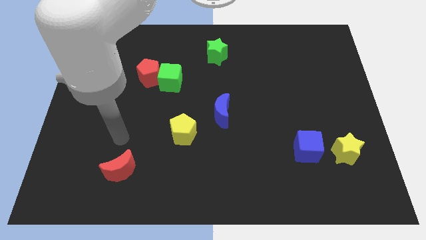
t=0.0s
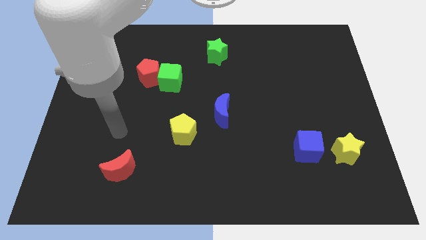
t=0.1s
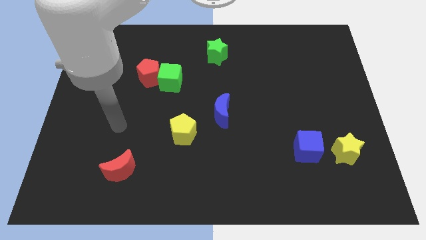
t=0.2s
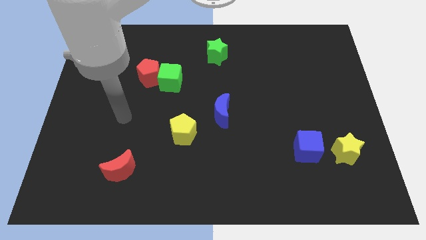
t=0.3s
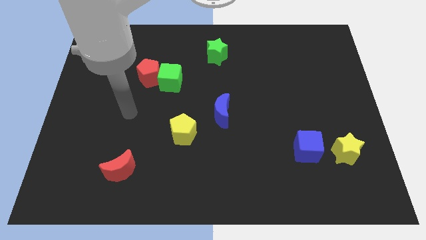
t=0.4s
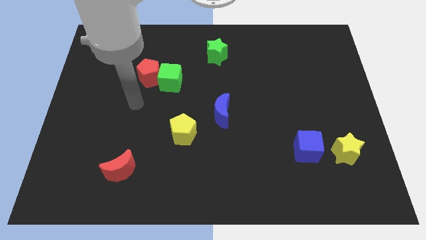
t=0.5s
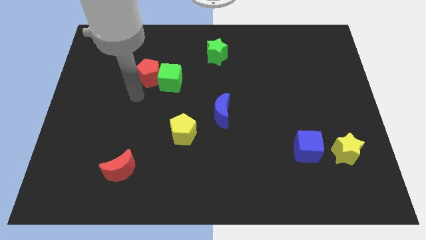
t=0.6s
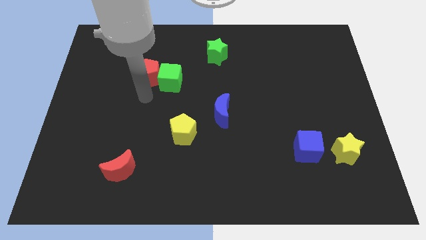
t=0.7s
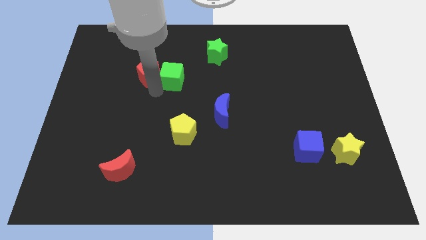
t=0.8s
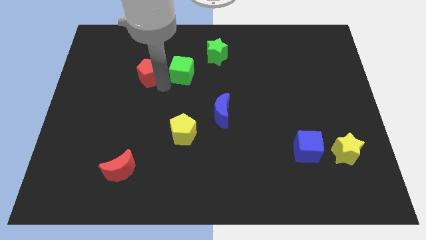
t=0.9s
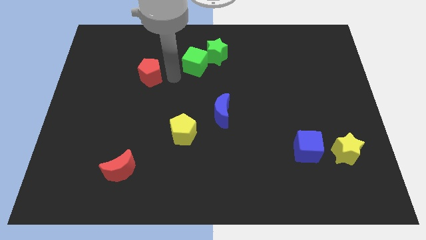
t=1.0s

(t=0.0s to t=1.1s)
separate the red pentagon from the green cube

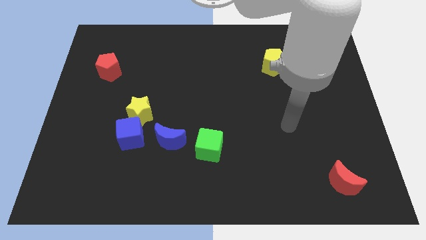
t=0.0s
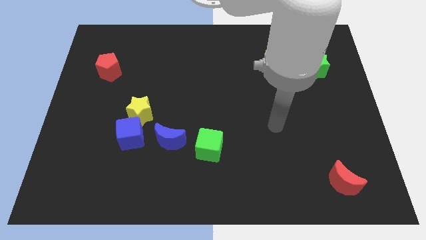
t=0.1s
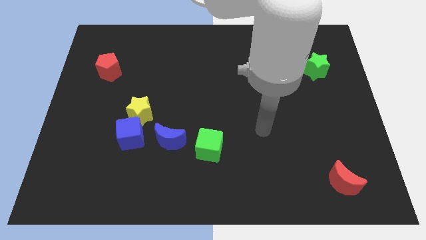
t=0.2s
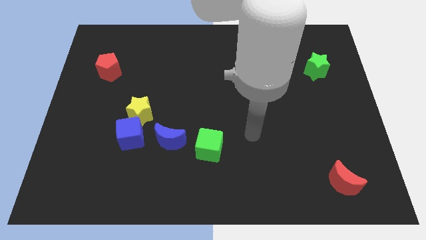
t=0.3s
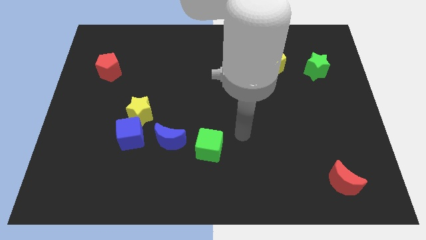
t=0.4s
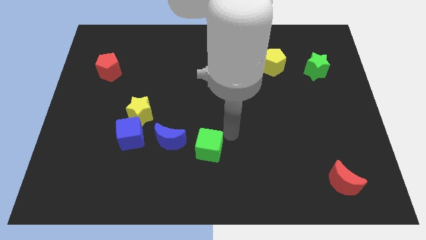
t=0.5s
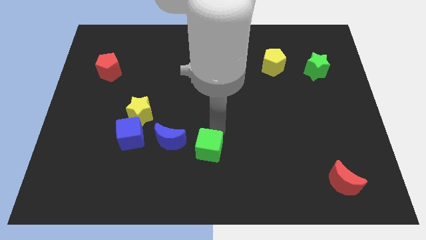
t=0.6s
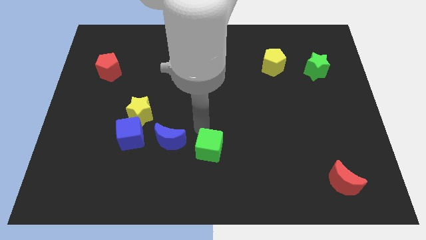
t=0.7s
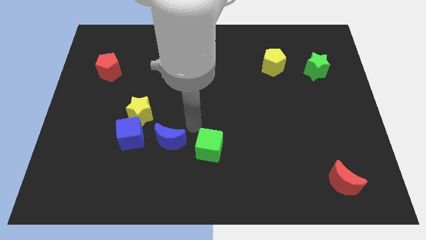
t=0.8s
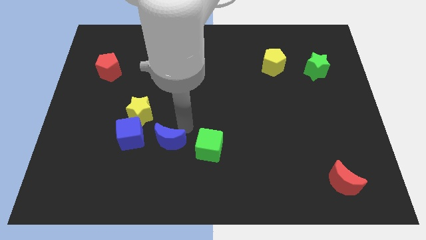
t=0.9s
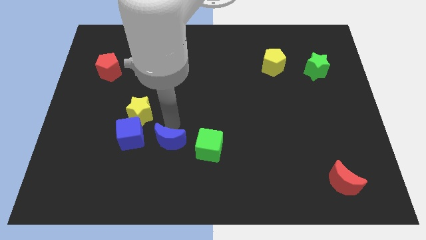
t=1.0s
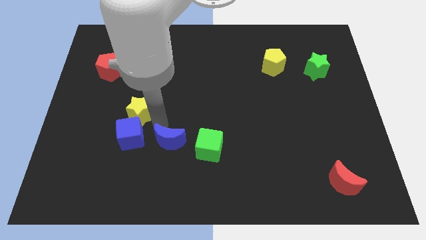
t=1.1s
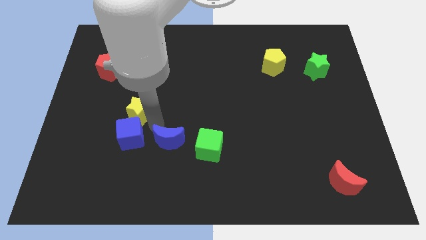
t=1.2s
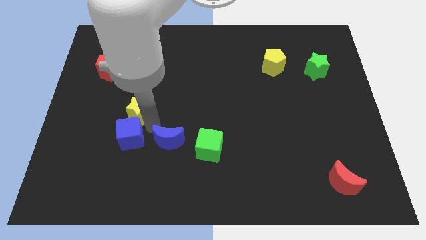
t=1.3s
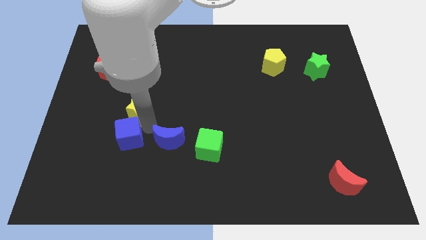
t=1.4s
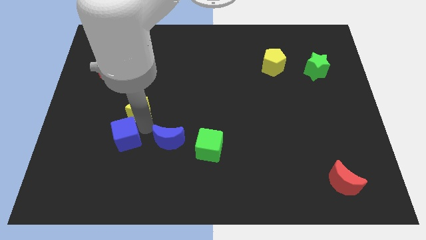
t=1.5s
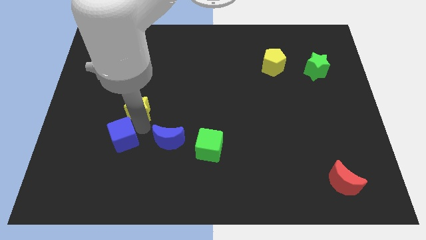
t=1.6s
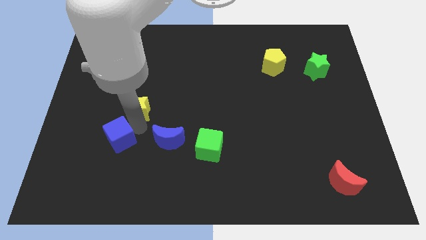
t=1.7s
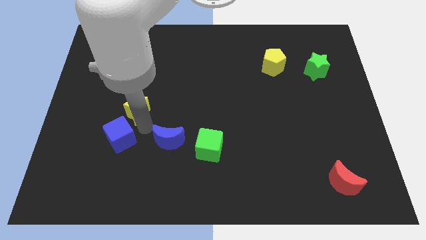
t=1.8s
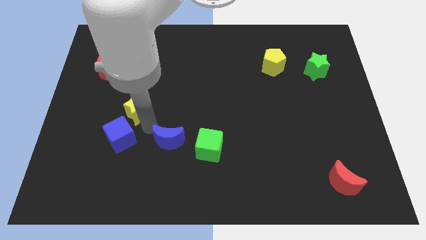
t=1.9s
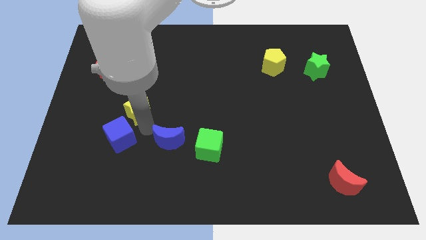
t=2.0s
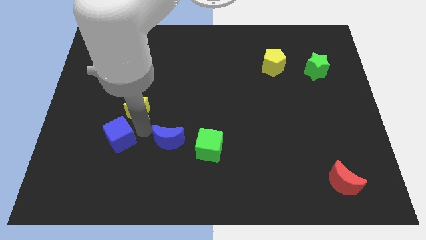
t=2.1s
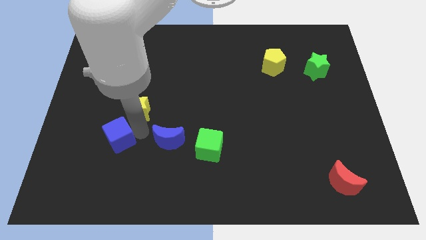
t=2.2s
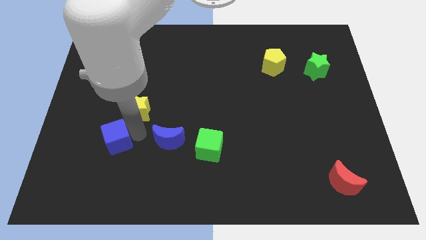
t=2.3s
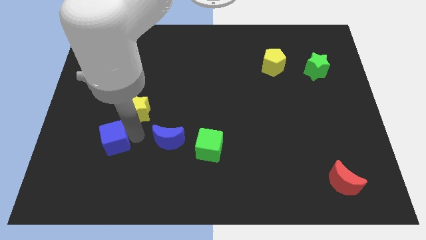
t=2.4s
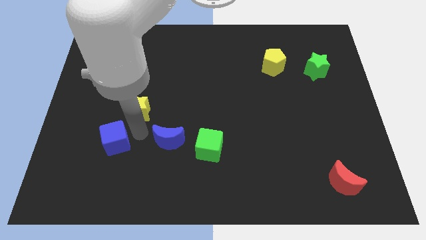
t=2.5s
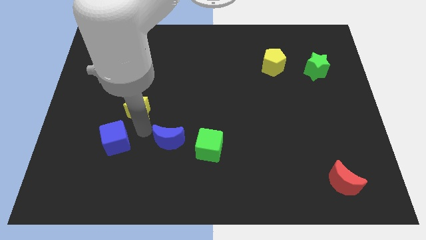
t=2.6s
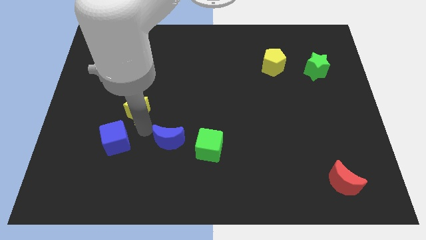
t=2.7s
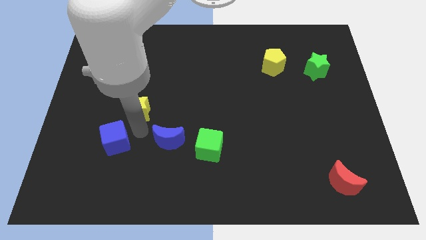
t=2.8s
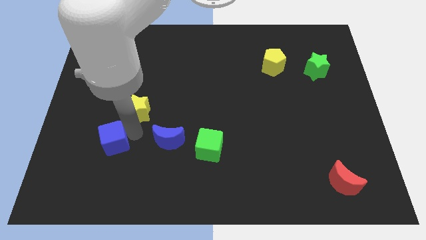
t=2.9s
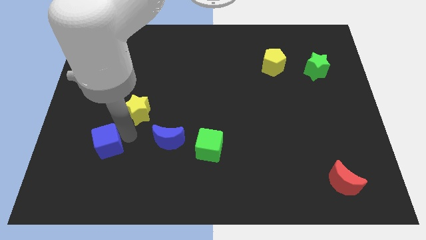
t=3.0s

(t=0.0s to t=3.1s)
move the blue cube away from the yellow star and blue moon

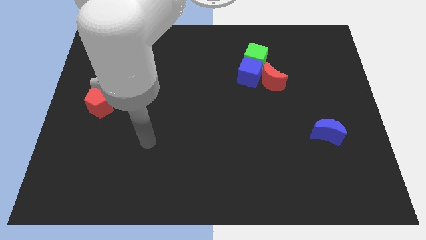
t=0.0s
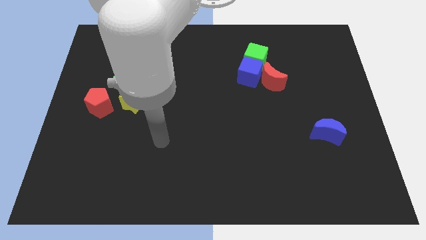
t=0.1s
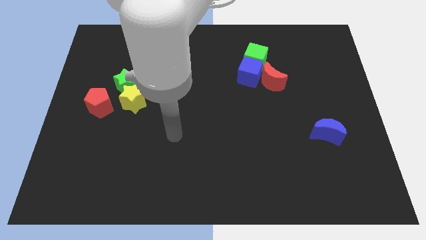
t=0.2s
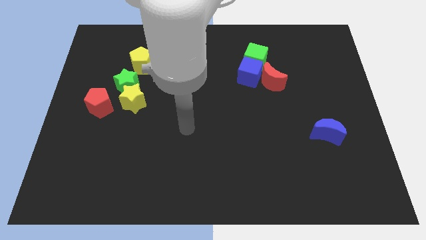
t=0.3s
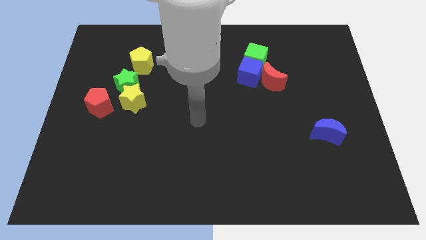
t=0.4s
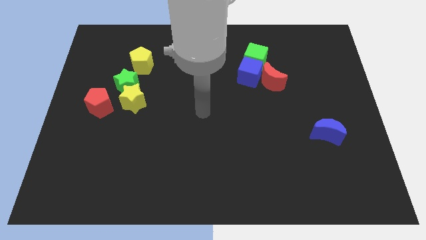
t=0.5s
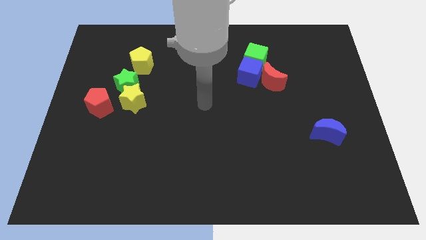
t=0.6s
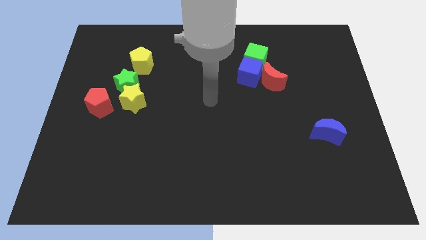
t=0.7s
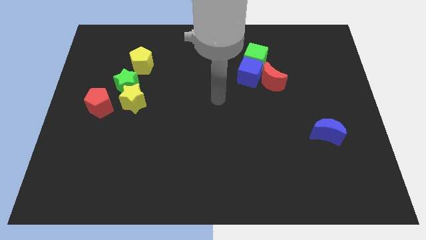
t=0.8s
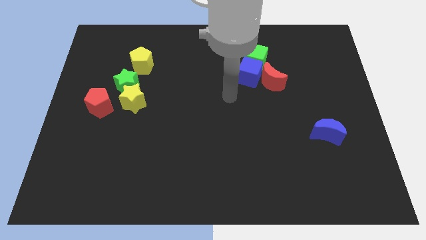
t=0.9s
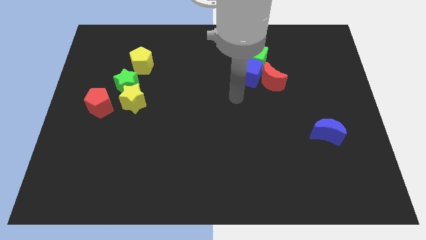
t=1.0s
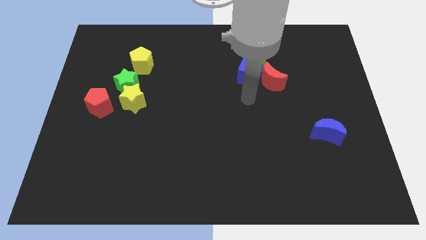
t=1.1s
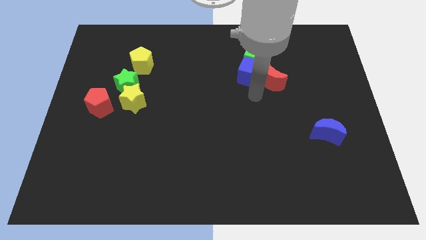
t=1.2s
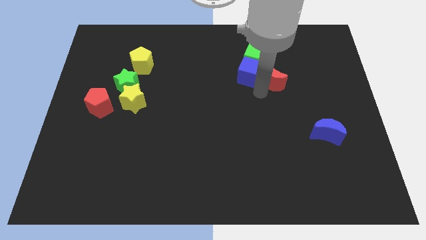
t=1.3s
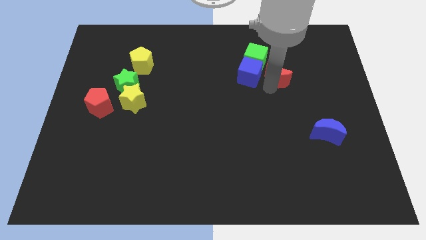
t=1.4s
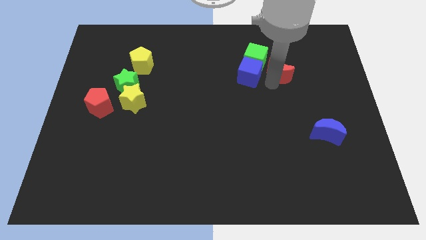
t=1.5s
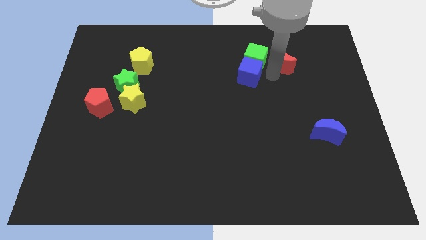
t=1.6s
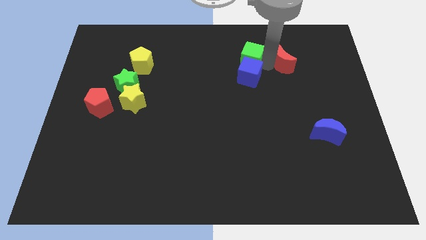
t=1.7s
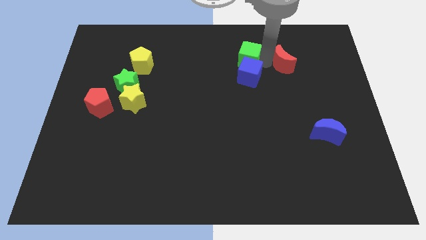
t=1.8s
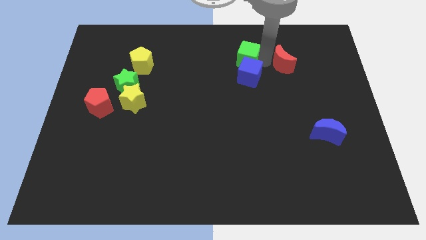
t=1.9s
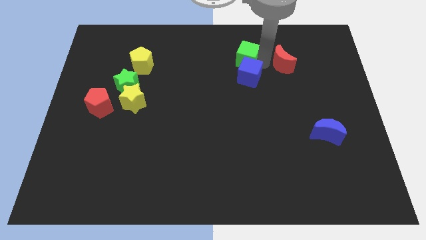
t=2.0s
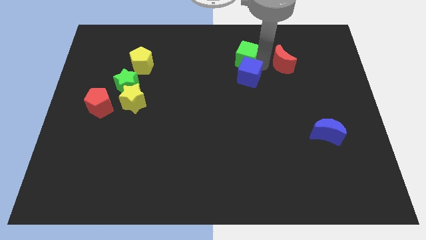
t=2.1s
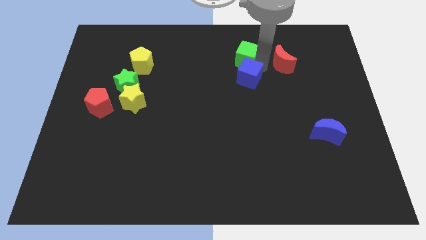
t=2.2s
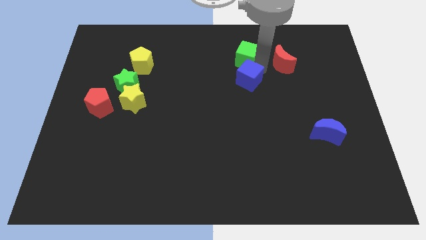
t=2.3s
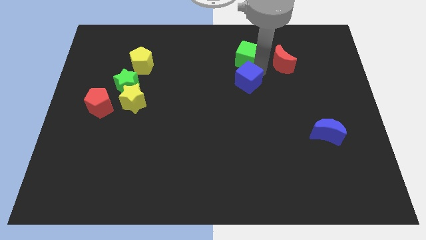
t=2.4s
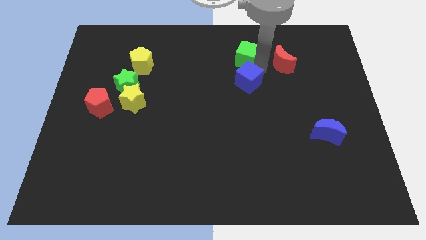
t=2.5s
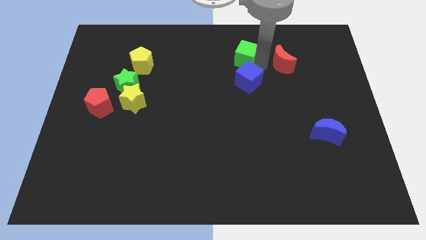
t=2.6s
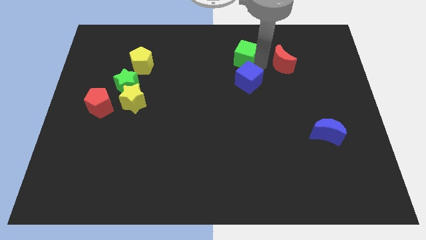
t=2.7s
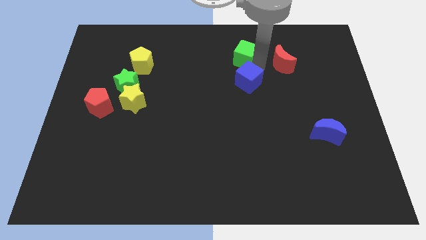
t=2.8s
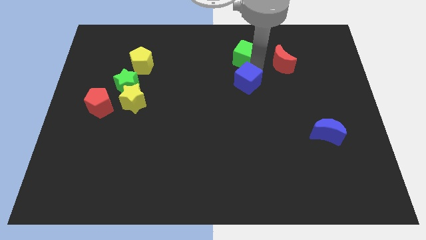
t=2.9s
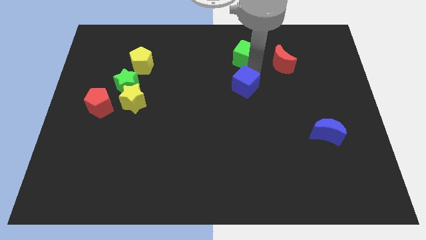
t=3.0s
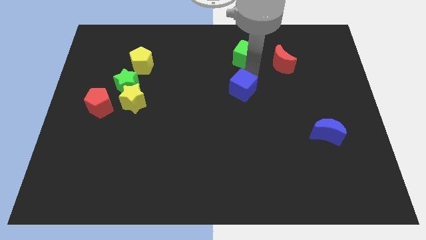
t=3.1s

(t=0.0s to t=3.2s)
separate the blue cube from the green cube and red moon

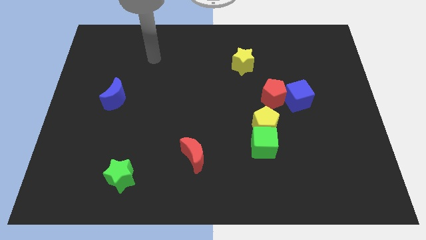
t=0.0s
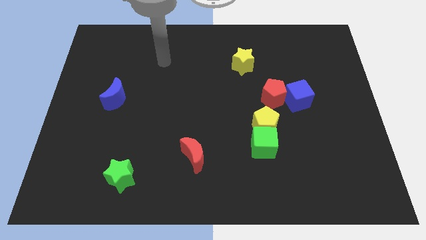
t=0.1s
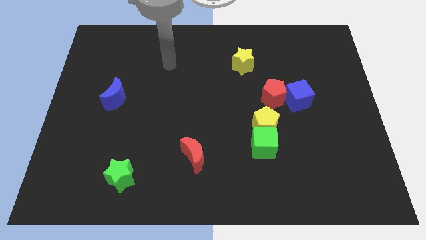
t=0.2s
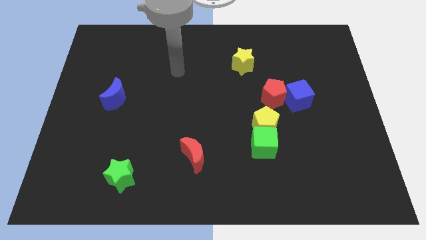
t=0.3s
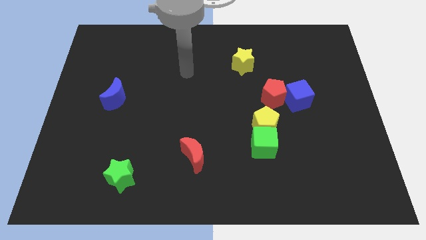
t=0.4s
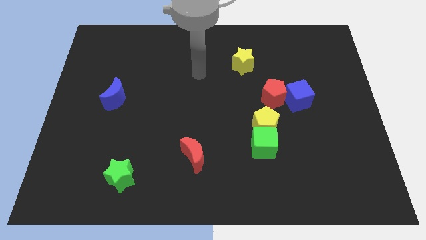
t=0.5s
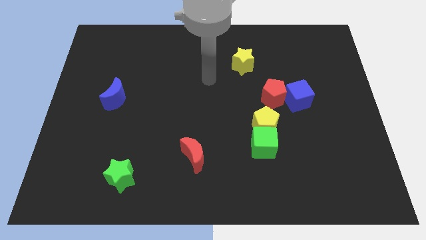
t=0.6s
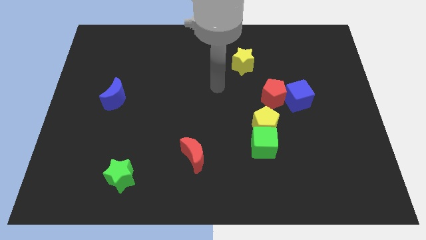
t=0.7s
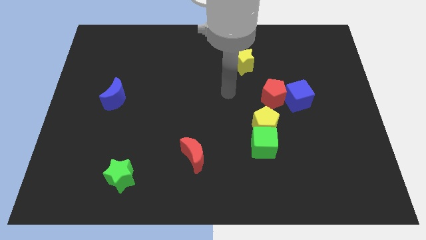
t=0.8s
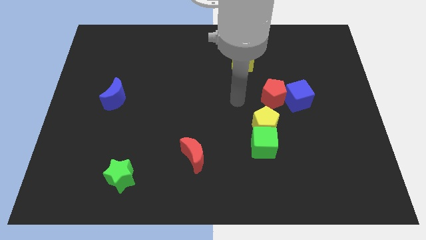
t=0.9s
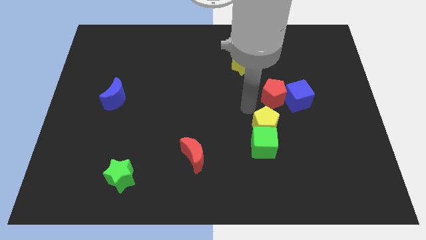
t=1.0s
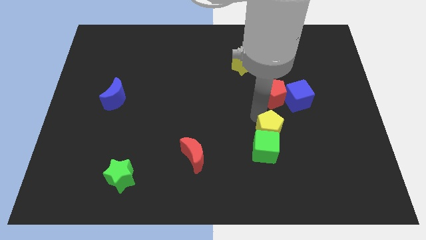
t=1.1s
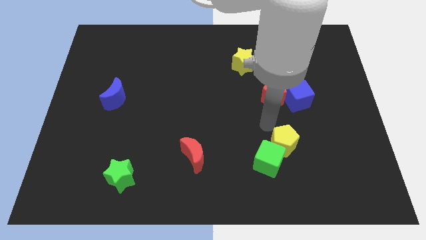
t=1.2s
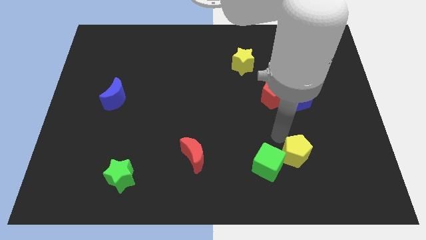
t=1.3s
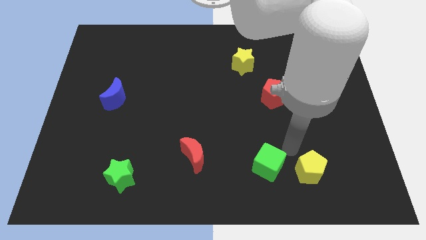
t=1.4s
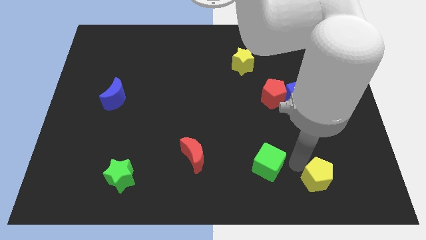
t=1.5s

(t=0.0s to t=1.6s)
move the green cube away from the yellow pentagon

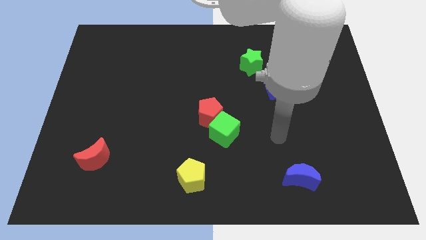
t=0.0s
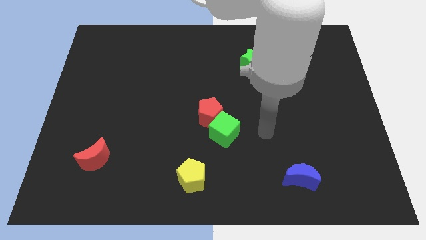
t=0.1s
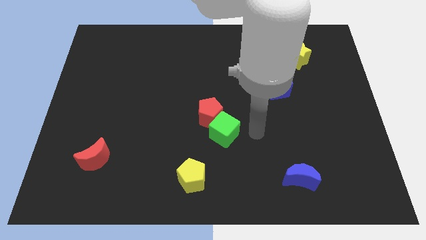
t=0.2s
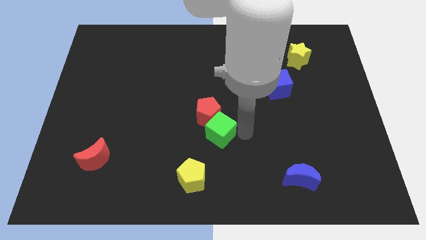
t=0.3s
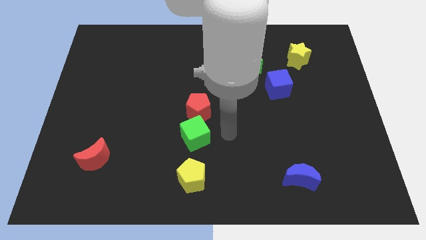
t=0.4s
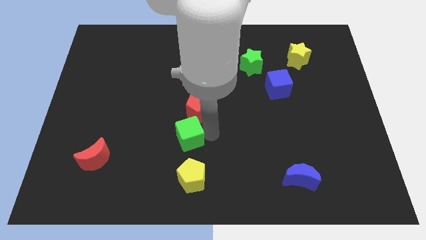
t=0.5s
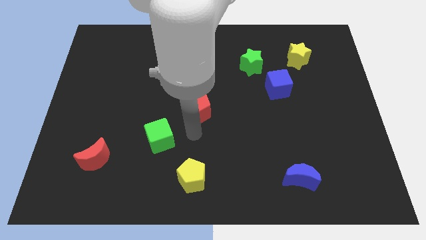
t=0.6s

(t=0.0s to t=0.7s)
move the red pentagon away from the green cube
